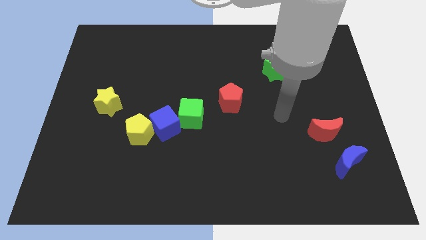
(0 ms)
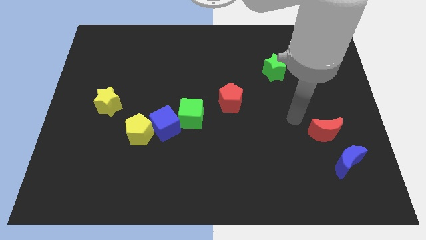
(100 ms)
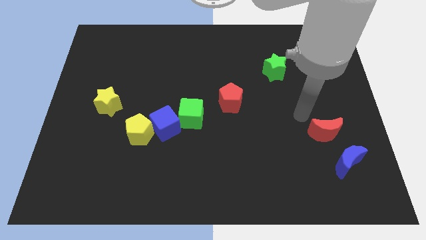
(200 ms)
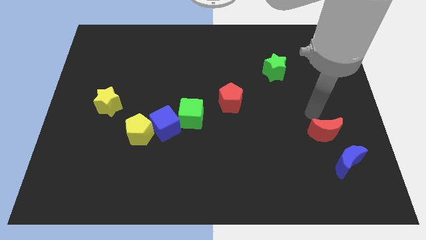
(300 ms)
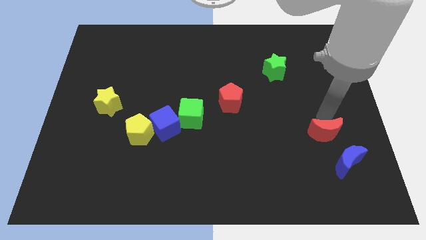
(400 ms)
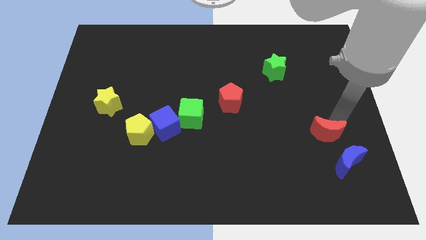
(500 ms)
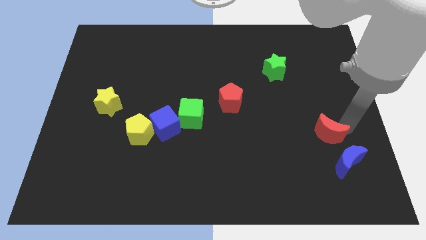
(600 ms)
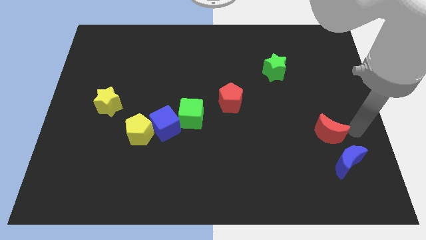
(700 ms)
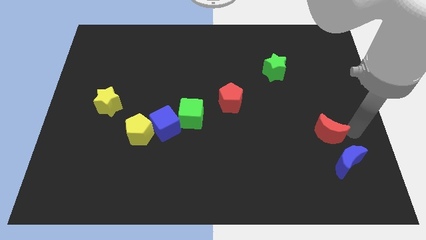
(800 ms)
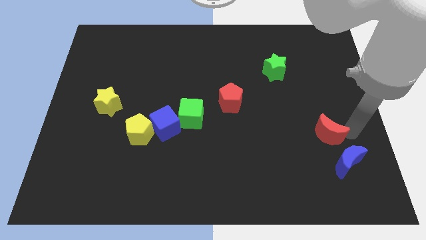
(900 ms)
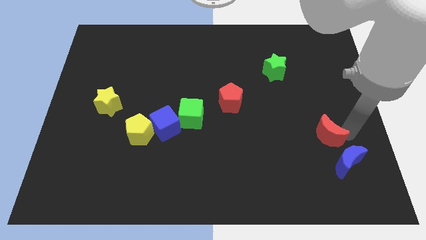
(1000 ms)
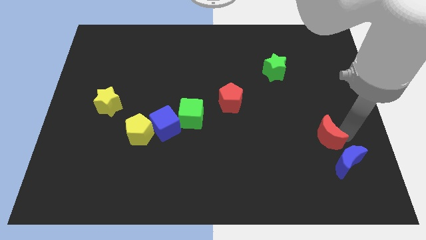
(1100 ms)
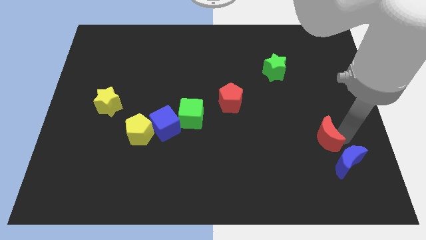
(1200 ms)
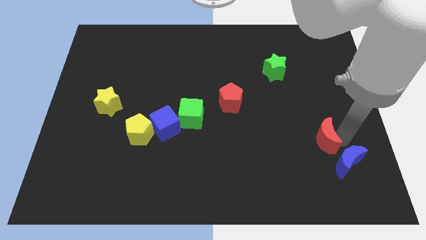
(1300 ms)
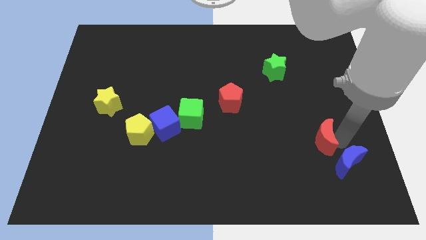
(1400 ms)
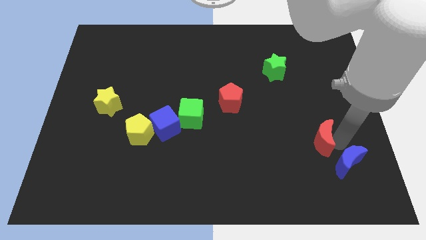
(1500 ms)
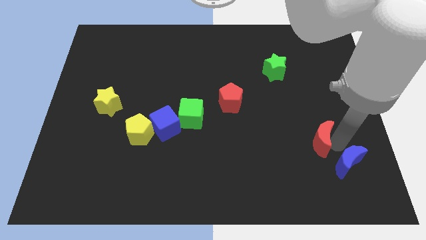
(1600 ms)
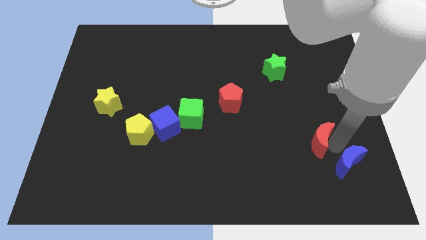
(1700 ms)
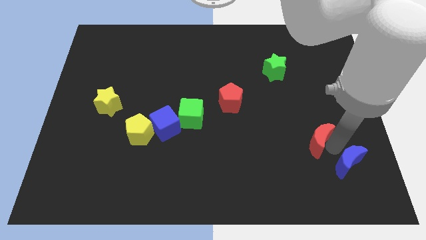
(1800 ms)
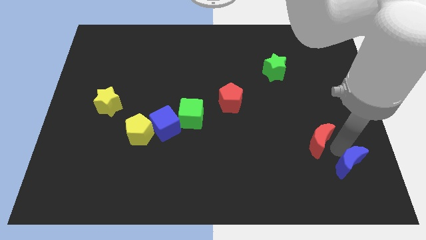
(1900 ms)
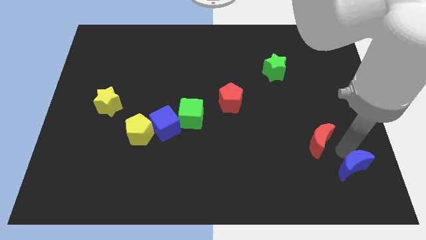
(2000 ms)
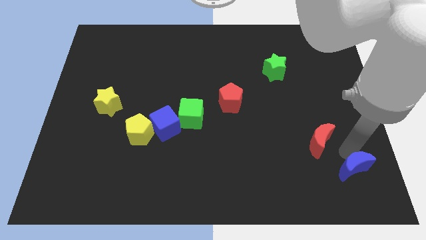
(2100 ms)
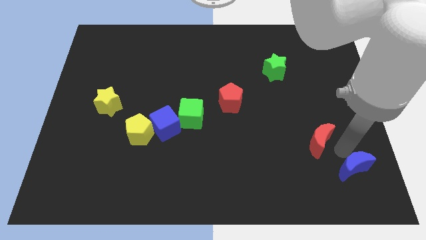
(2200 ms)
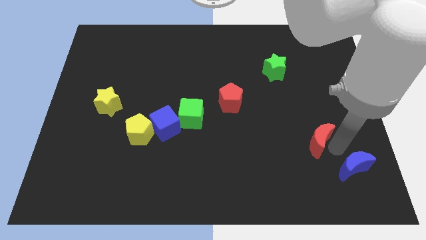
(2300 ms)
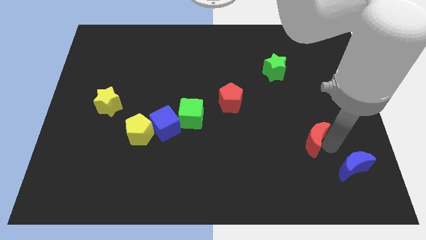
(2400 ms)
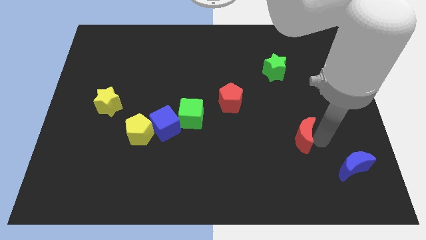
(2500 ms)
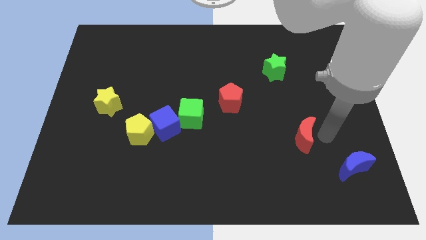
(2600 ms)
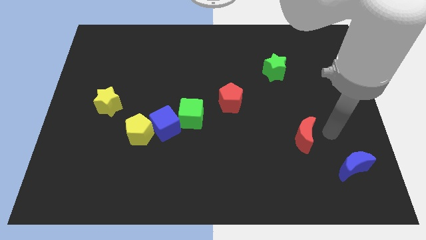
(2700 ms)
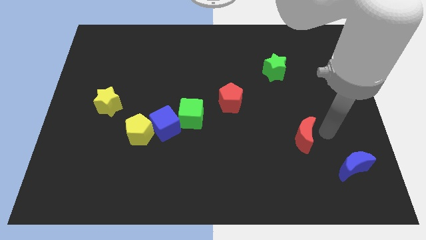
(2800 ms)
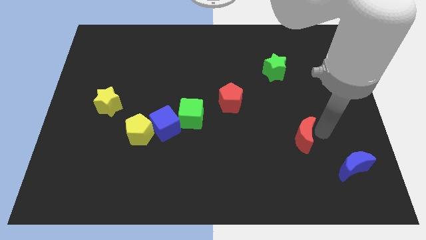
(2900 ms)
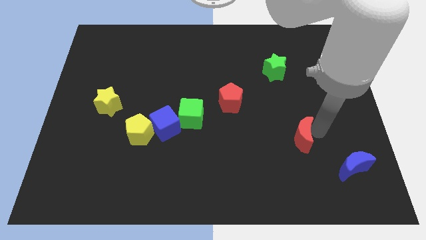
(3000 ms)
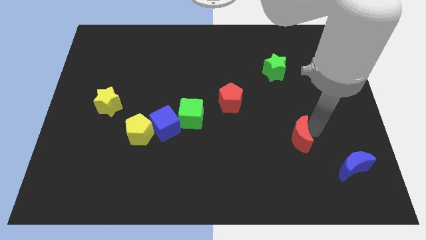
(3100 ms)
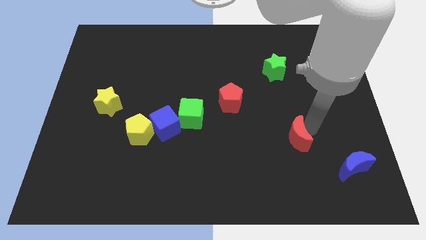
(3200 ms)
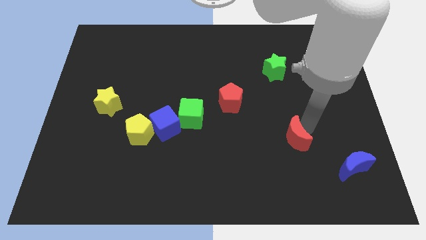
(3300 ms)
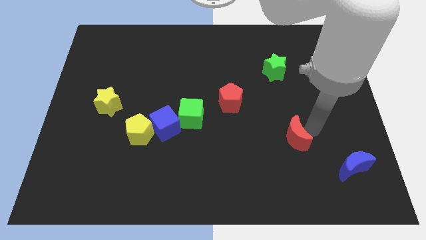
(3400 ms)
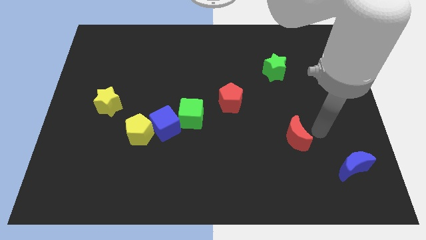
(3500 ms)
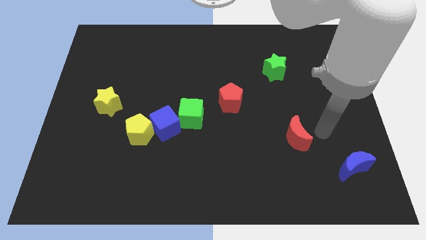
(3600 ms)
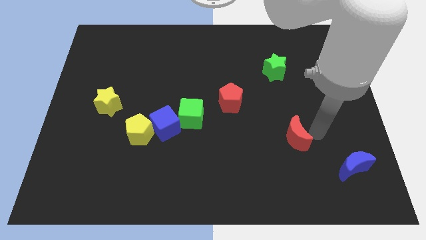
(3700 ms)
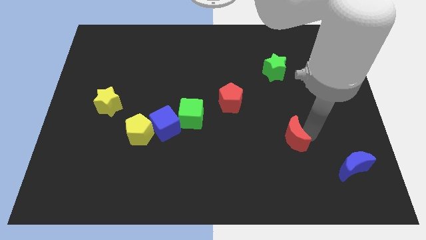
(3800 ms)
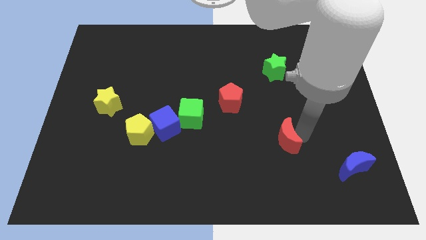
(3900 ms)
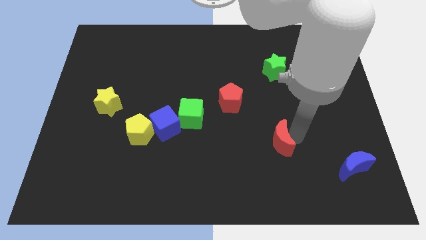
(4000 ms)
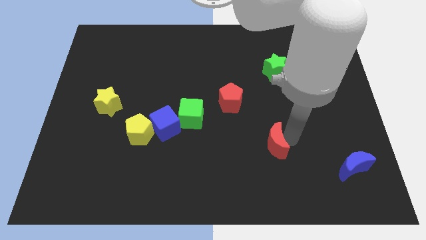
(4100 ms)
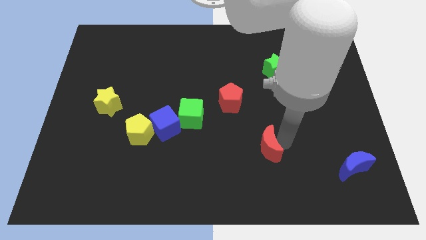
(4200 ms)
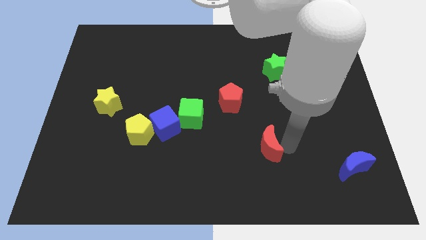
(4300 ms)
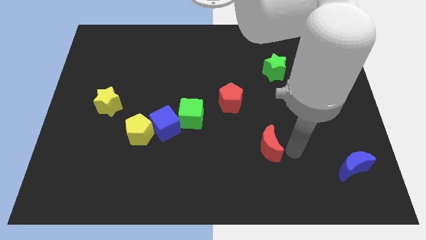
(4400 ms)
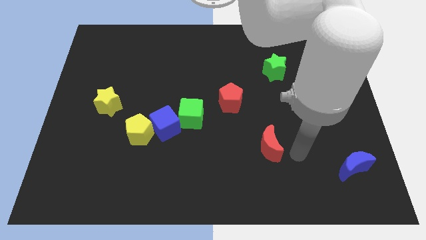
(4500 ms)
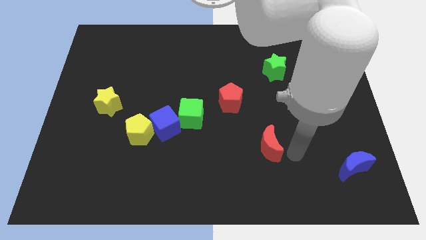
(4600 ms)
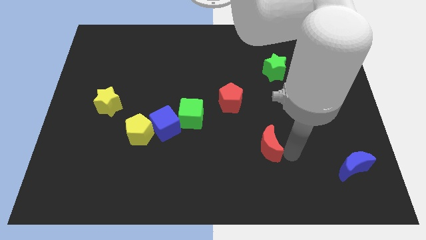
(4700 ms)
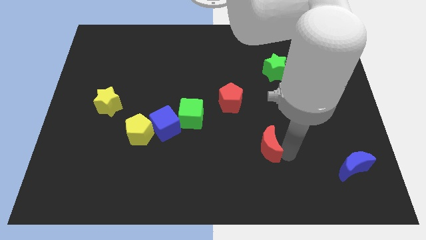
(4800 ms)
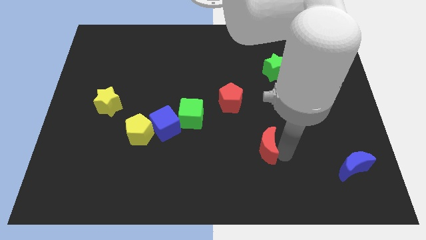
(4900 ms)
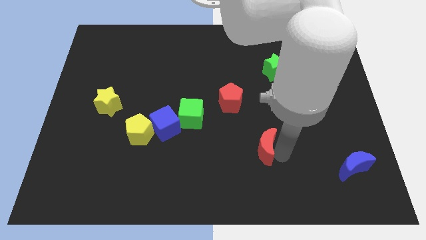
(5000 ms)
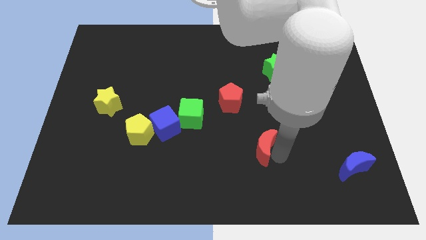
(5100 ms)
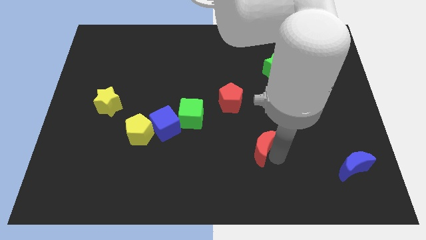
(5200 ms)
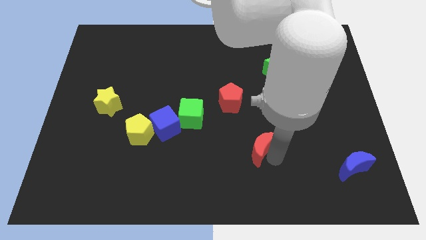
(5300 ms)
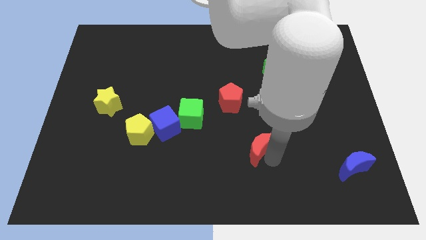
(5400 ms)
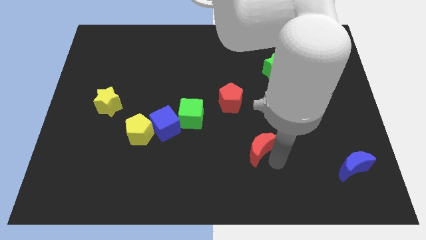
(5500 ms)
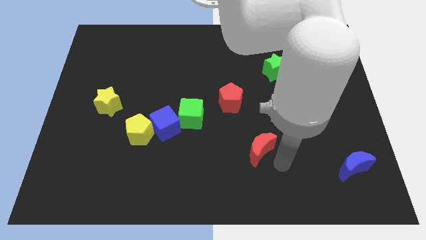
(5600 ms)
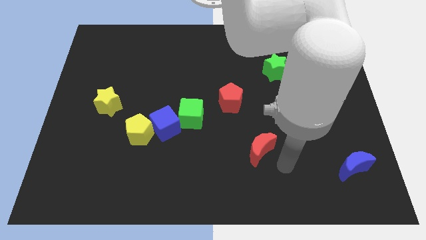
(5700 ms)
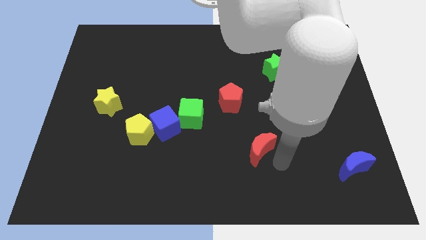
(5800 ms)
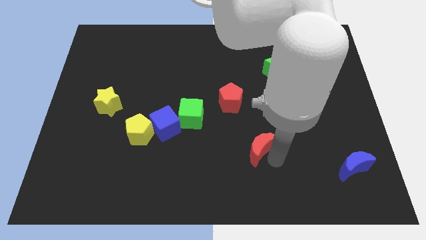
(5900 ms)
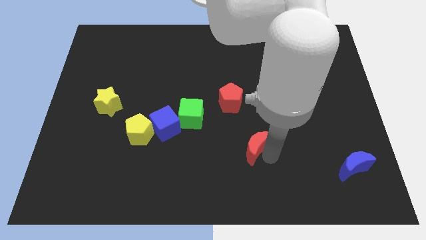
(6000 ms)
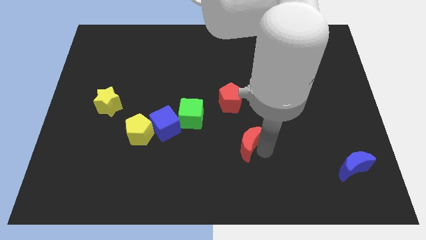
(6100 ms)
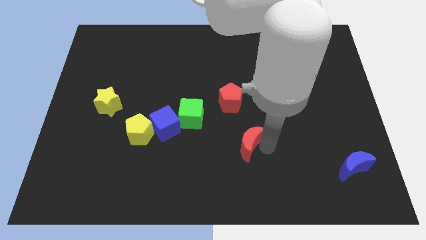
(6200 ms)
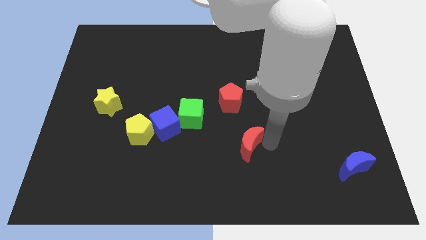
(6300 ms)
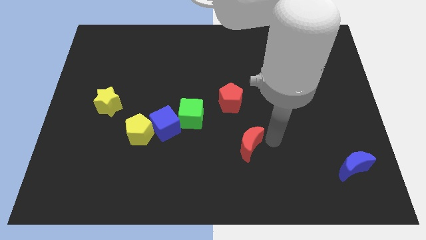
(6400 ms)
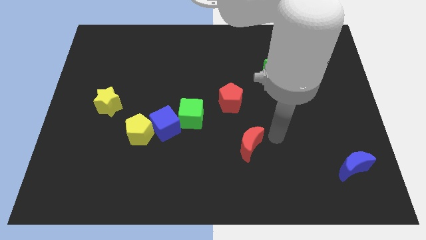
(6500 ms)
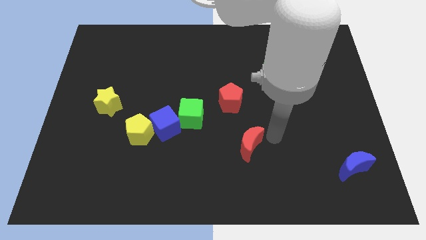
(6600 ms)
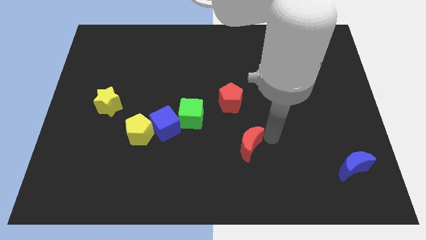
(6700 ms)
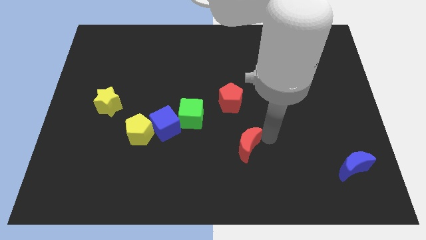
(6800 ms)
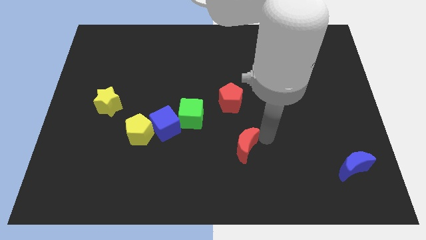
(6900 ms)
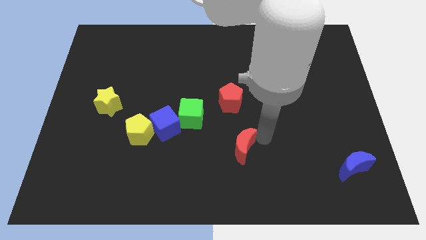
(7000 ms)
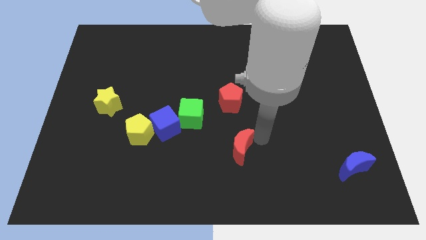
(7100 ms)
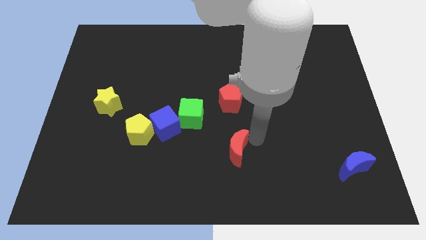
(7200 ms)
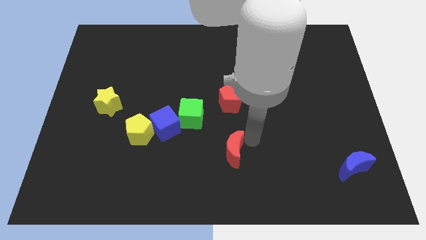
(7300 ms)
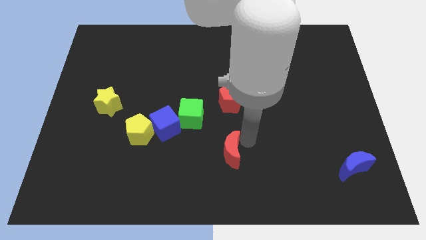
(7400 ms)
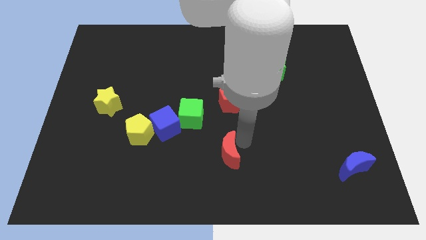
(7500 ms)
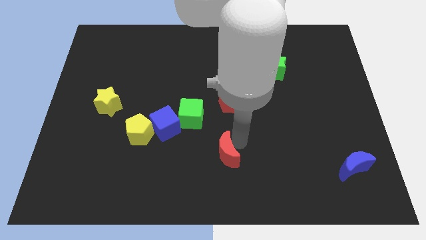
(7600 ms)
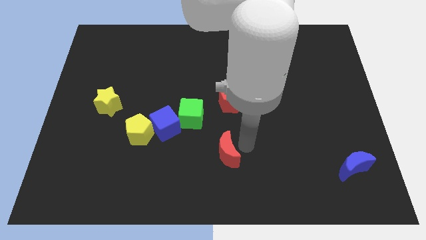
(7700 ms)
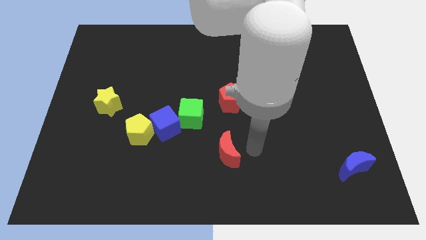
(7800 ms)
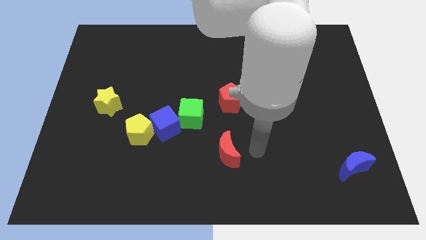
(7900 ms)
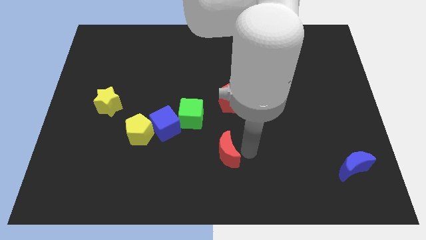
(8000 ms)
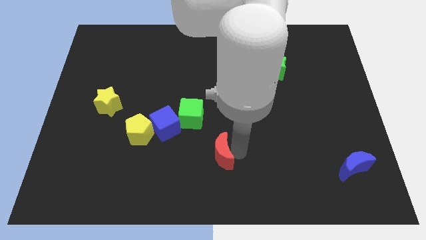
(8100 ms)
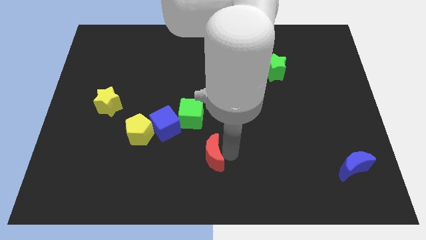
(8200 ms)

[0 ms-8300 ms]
push the red moon below the green cube
